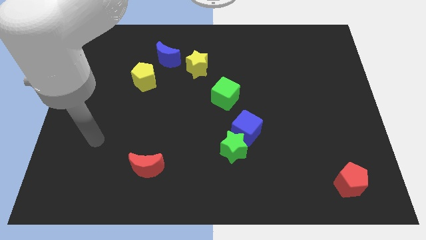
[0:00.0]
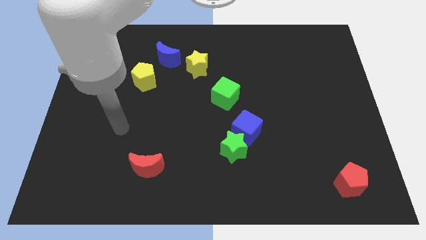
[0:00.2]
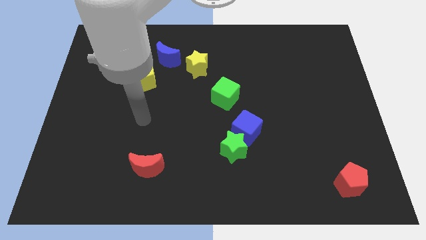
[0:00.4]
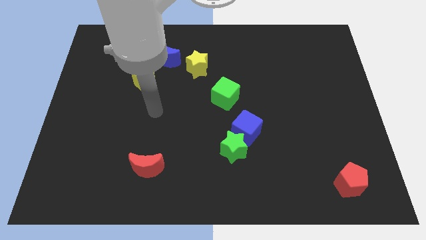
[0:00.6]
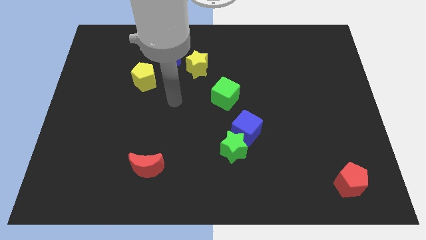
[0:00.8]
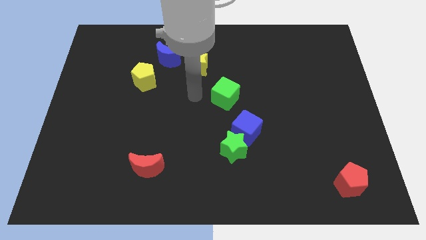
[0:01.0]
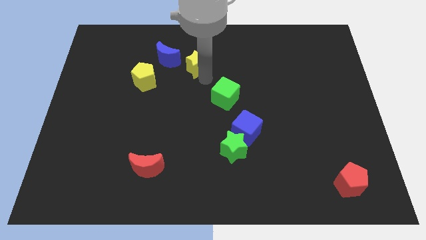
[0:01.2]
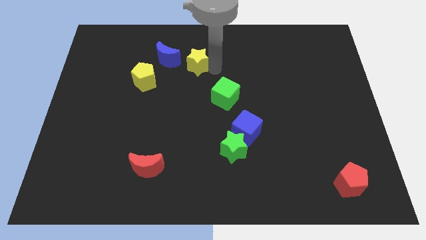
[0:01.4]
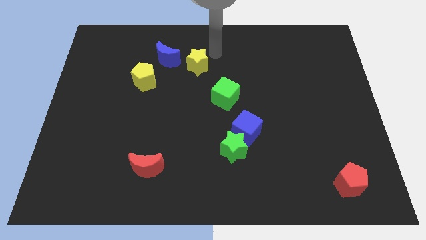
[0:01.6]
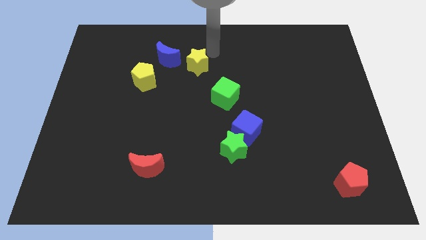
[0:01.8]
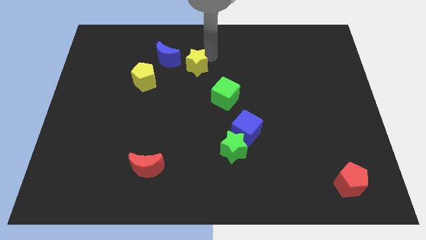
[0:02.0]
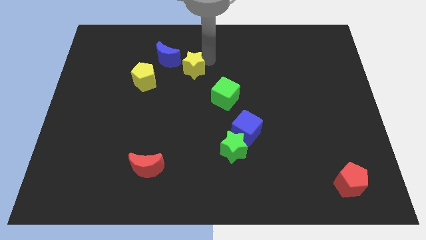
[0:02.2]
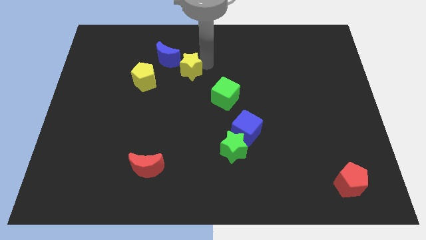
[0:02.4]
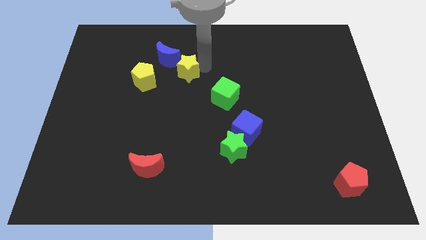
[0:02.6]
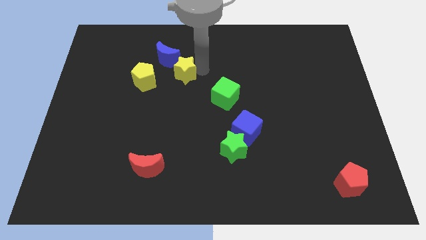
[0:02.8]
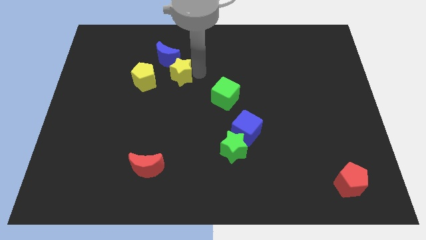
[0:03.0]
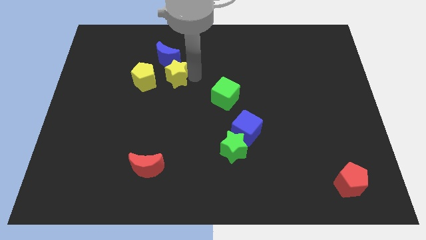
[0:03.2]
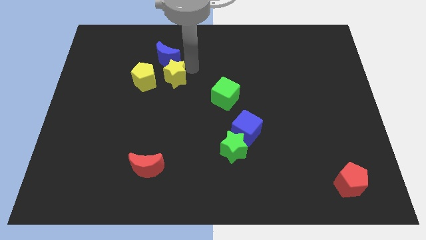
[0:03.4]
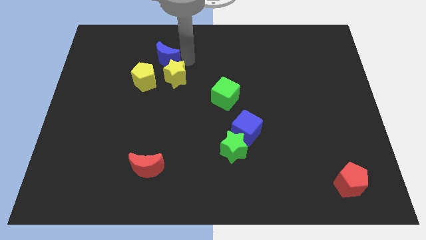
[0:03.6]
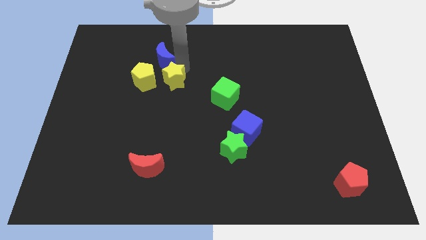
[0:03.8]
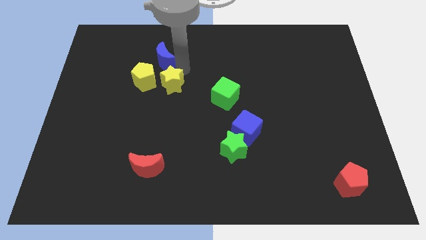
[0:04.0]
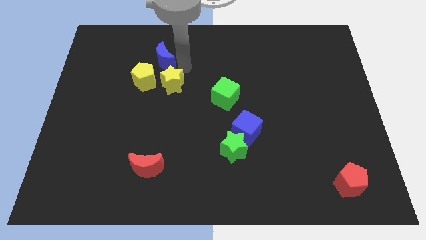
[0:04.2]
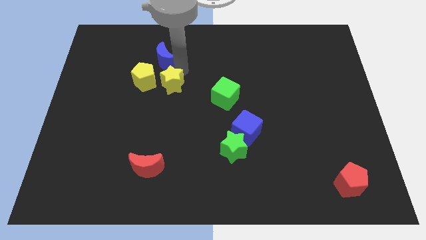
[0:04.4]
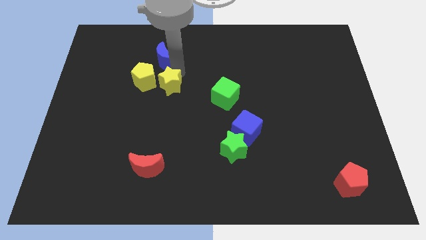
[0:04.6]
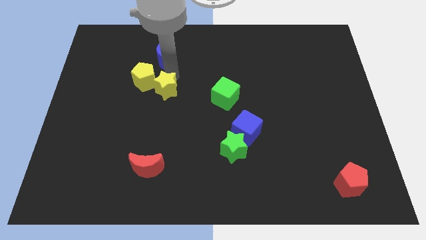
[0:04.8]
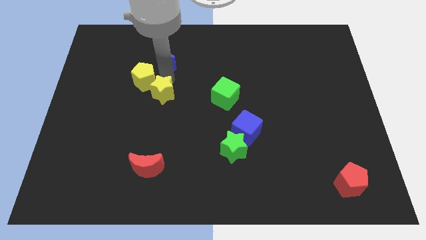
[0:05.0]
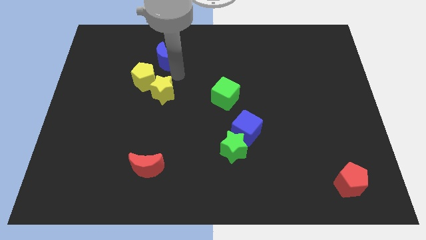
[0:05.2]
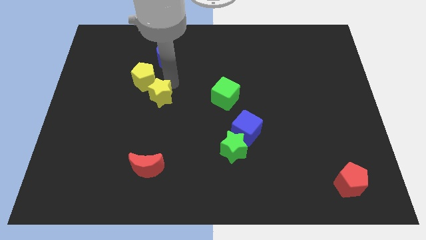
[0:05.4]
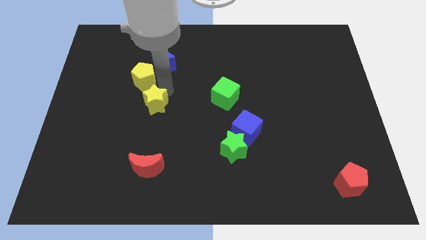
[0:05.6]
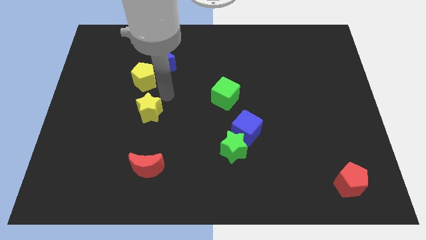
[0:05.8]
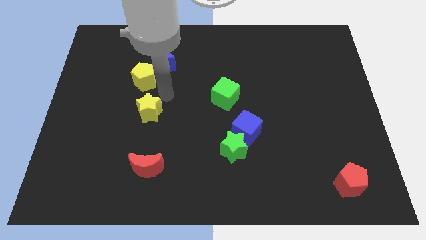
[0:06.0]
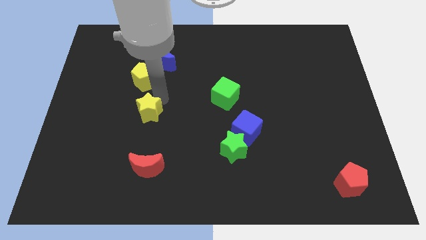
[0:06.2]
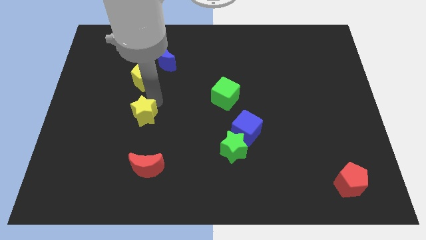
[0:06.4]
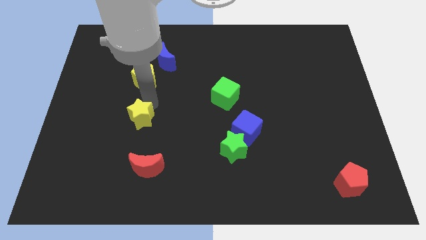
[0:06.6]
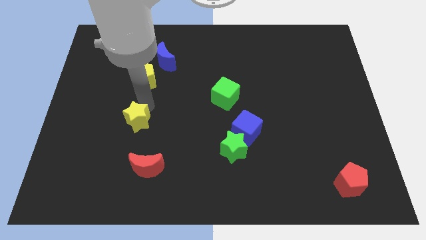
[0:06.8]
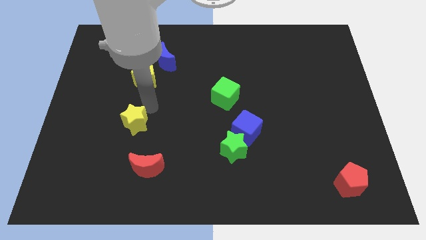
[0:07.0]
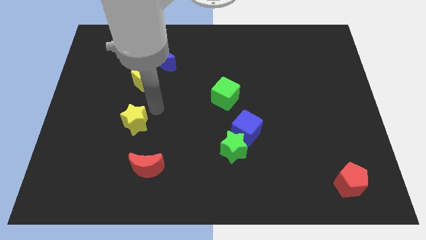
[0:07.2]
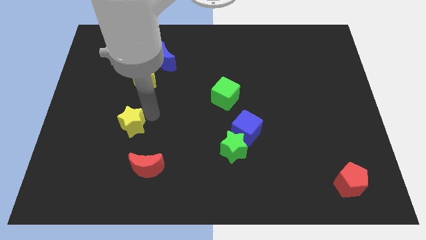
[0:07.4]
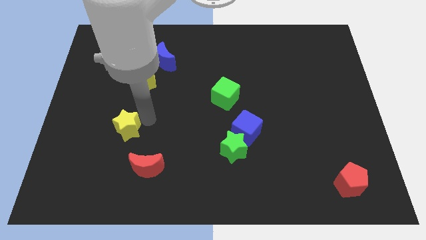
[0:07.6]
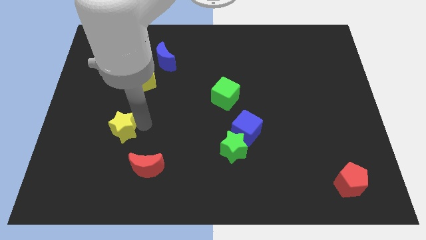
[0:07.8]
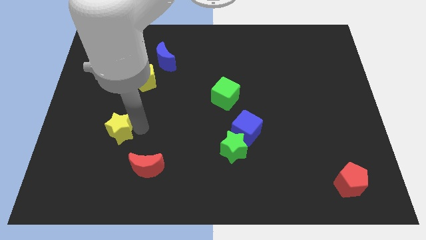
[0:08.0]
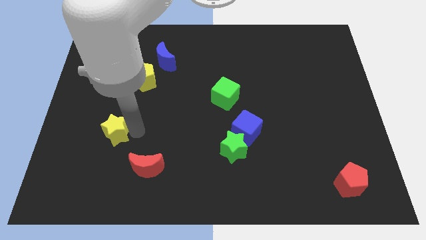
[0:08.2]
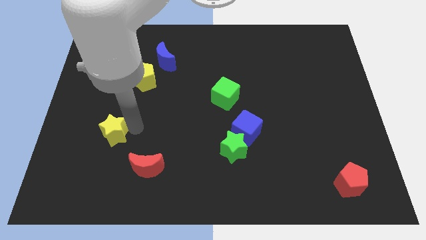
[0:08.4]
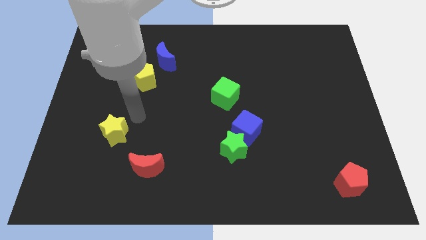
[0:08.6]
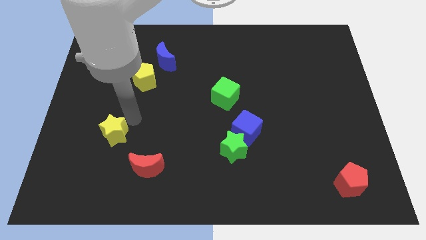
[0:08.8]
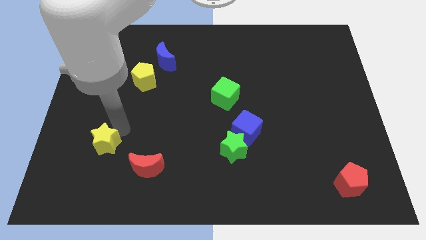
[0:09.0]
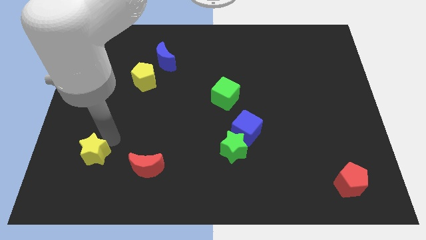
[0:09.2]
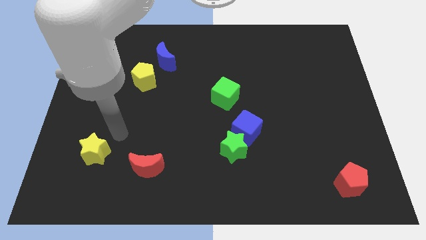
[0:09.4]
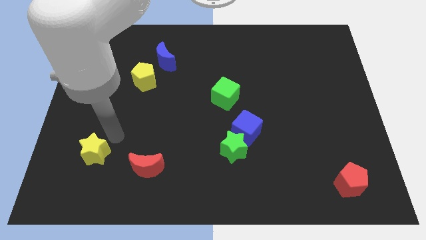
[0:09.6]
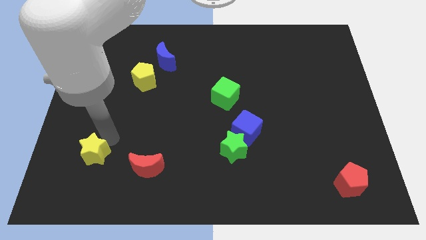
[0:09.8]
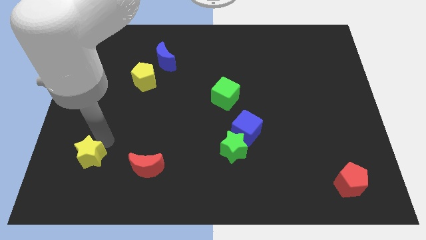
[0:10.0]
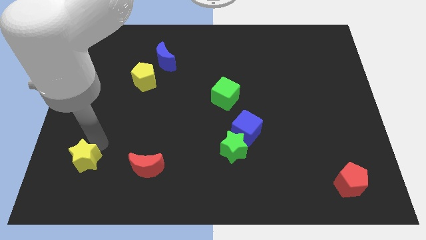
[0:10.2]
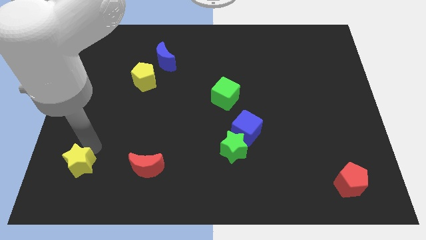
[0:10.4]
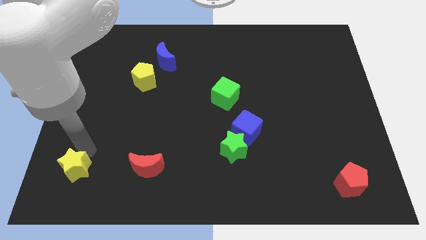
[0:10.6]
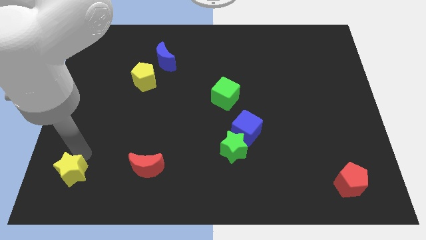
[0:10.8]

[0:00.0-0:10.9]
put the yellow star to the bottom left corner

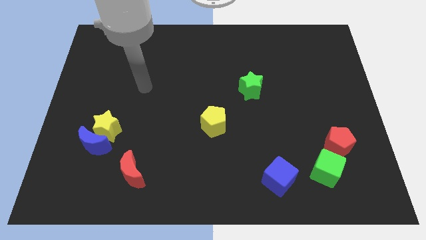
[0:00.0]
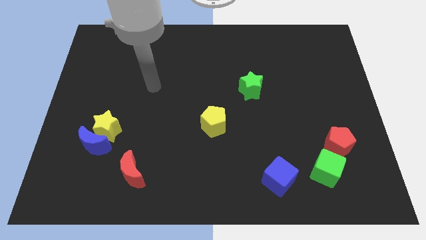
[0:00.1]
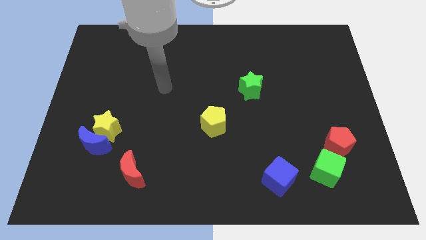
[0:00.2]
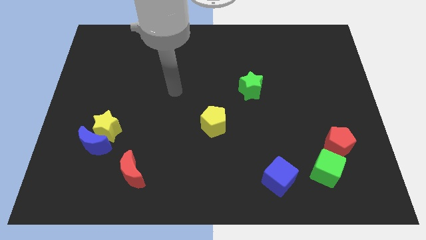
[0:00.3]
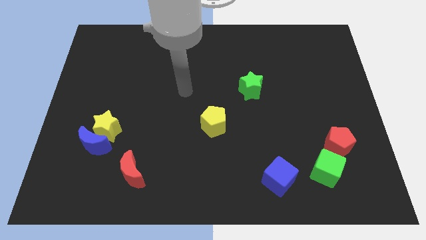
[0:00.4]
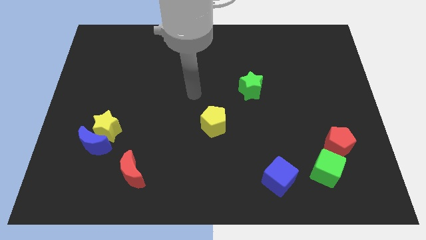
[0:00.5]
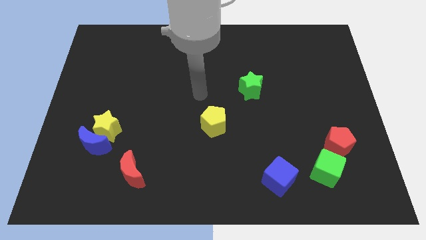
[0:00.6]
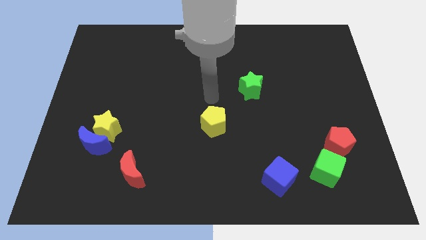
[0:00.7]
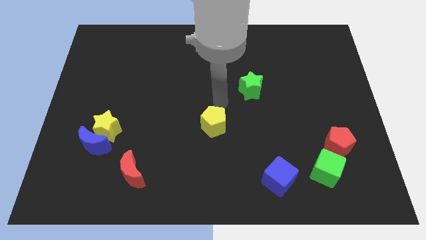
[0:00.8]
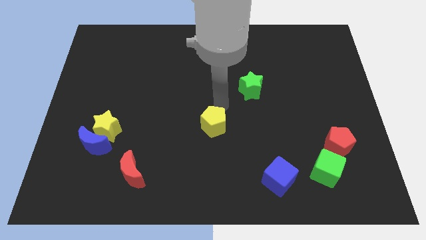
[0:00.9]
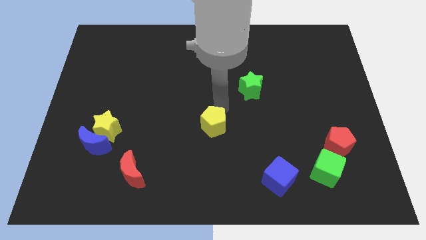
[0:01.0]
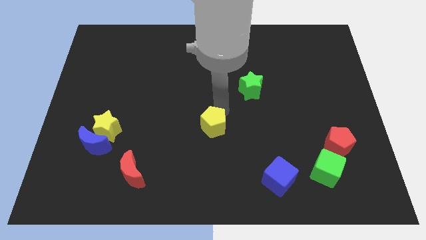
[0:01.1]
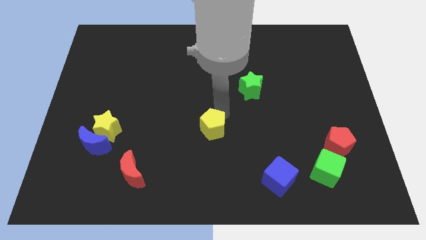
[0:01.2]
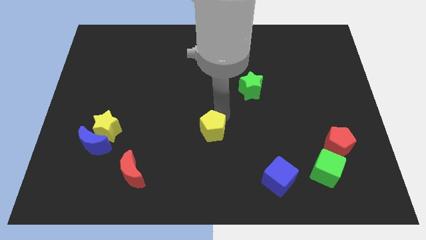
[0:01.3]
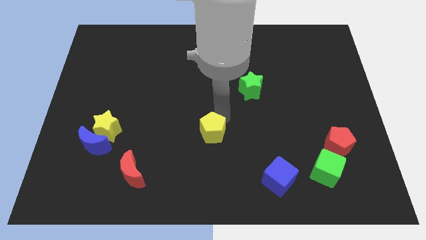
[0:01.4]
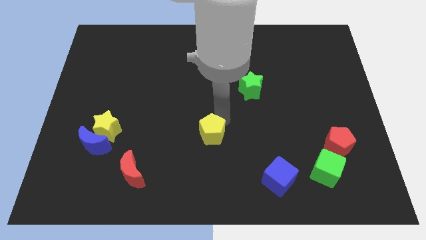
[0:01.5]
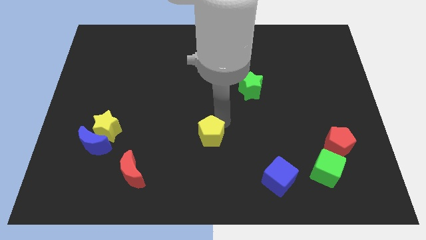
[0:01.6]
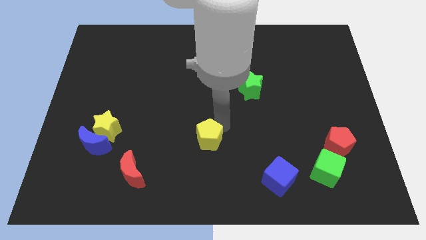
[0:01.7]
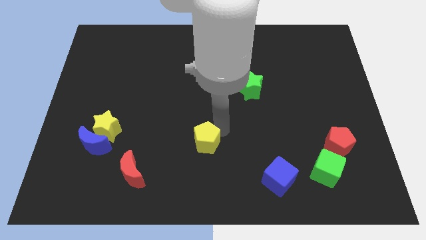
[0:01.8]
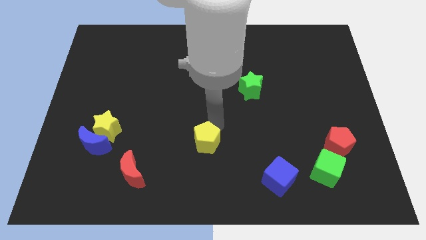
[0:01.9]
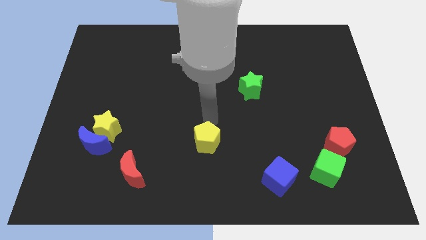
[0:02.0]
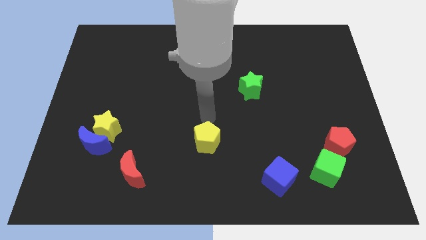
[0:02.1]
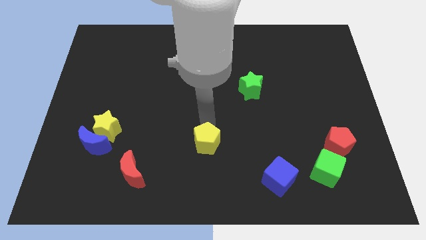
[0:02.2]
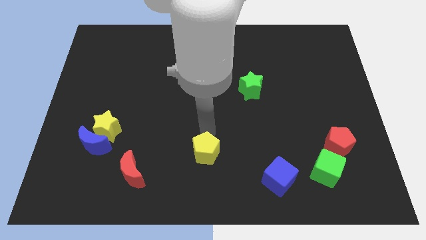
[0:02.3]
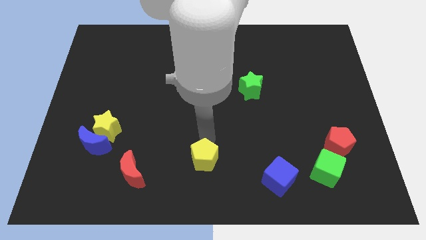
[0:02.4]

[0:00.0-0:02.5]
push the yellow pentagon to the bottom side
